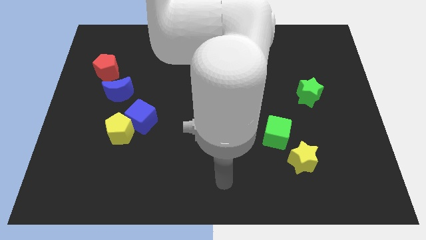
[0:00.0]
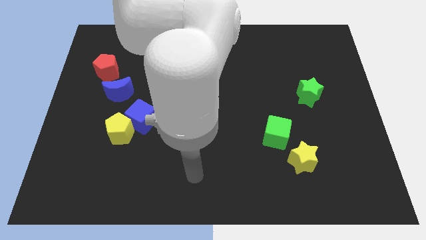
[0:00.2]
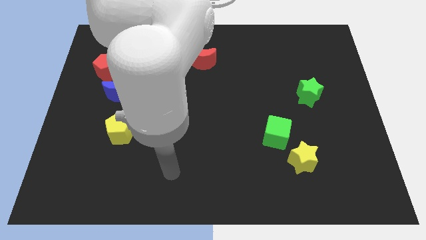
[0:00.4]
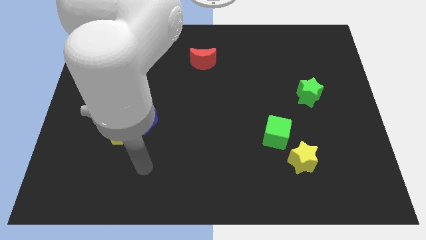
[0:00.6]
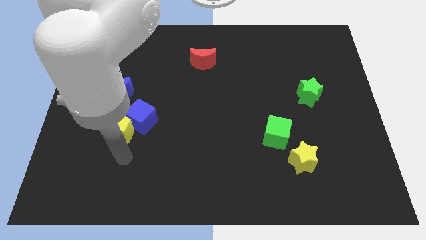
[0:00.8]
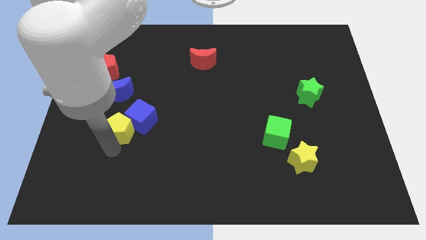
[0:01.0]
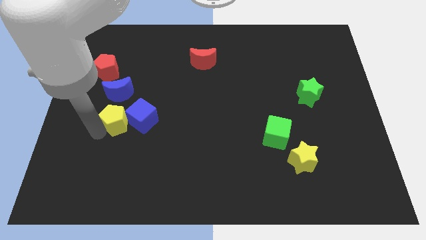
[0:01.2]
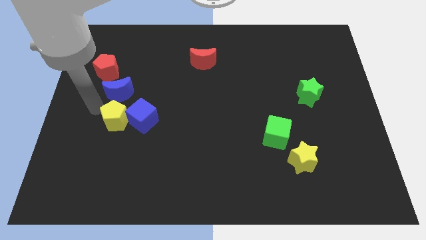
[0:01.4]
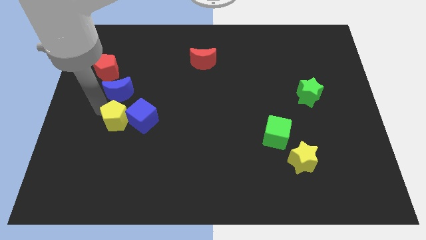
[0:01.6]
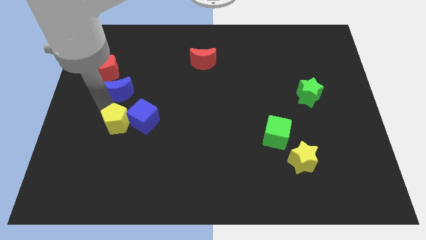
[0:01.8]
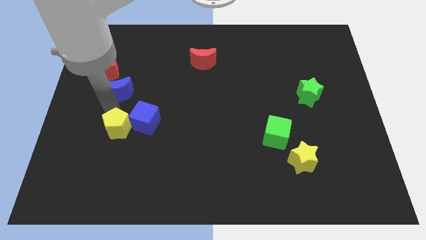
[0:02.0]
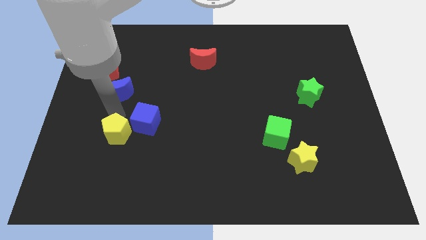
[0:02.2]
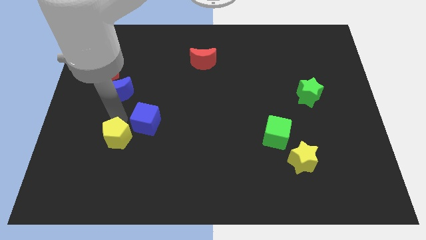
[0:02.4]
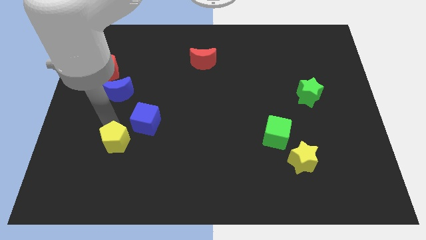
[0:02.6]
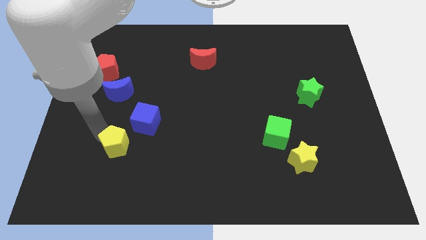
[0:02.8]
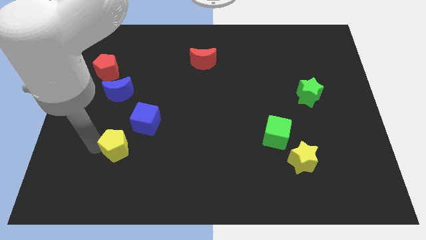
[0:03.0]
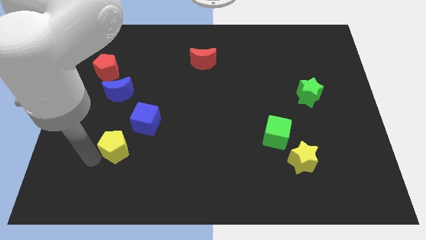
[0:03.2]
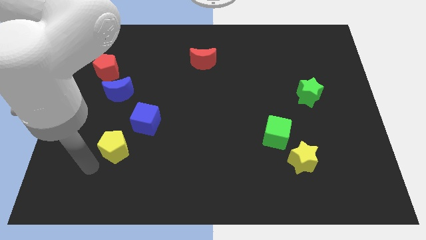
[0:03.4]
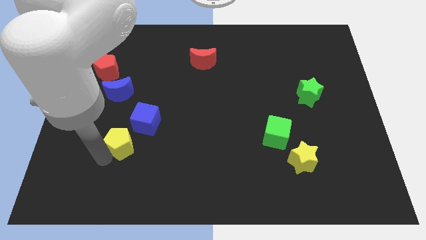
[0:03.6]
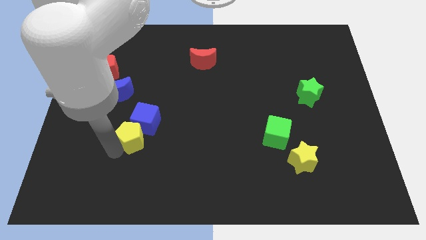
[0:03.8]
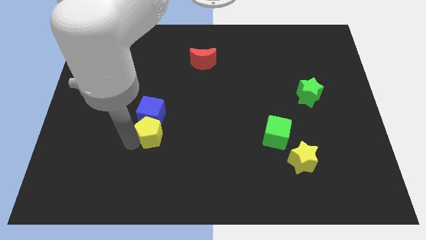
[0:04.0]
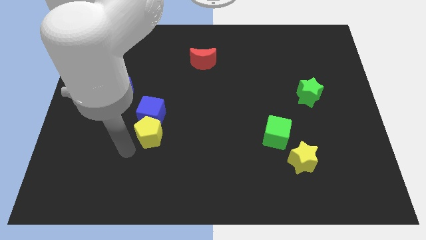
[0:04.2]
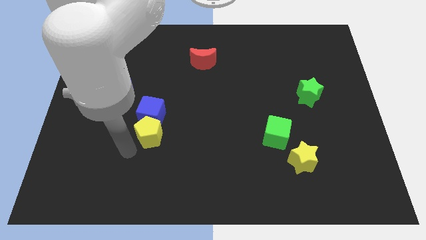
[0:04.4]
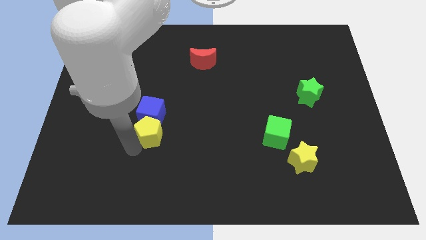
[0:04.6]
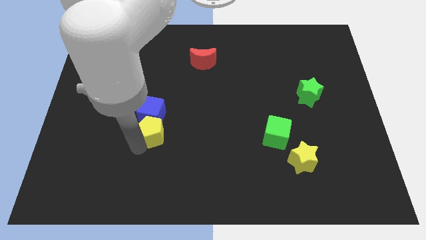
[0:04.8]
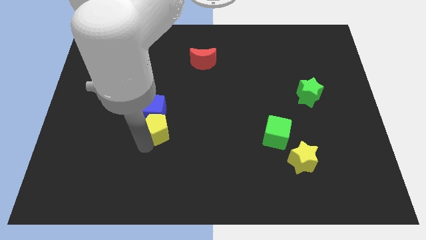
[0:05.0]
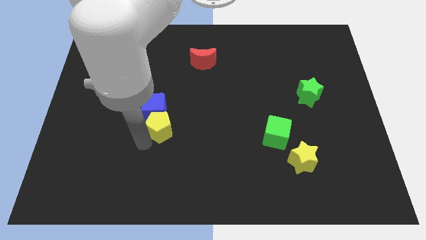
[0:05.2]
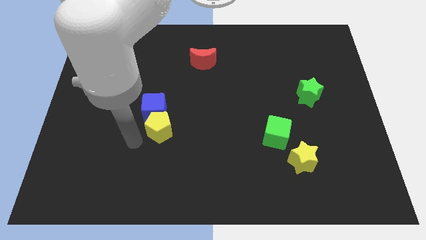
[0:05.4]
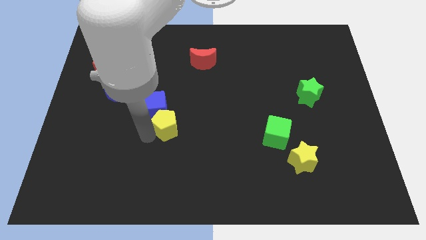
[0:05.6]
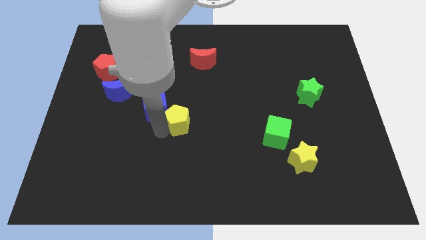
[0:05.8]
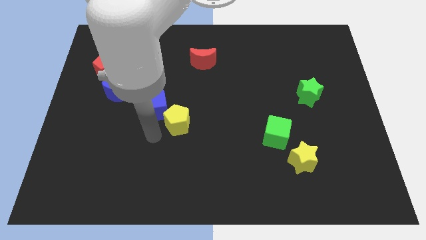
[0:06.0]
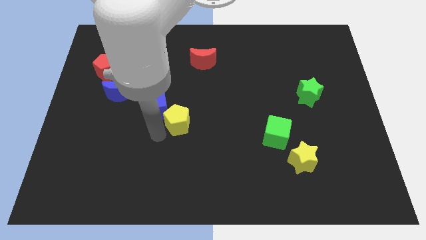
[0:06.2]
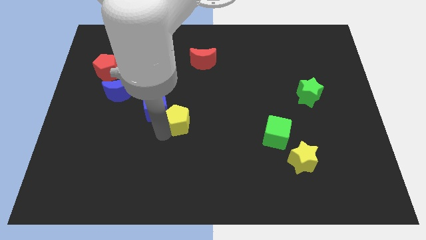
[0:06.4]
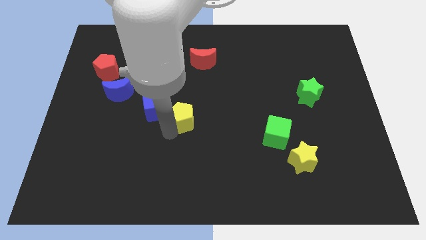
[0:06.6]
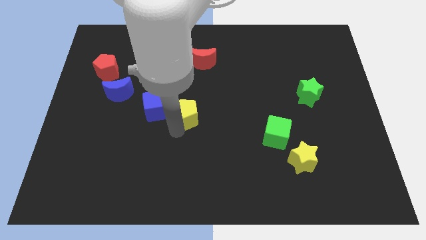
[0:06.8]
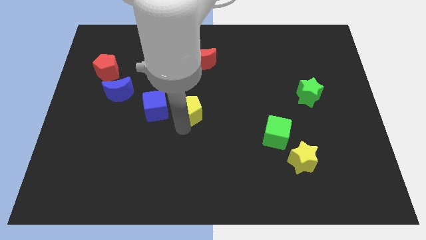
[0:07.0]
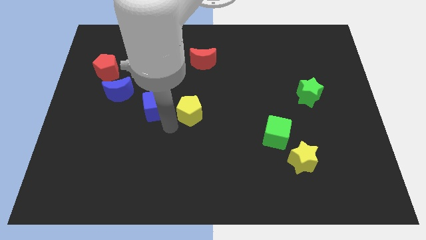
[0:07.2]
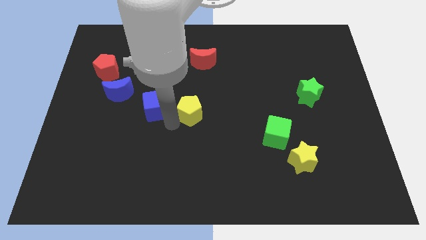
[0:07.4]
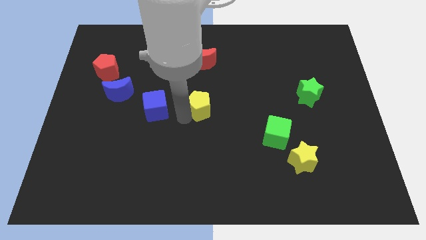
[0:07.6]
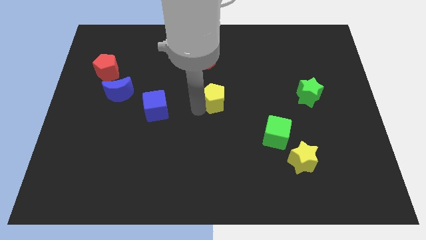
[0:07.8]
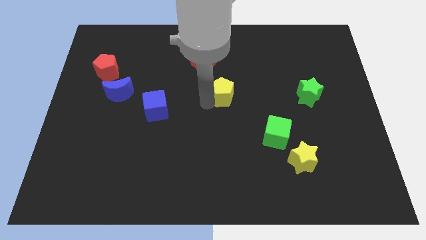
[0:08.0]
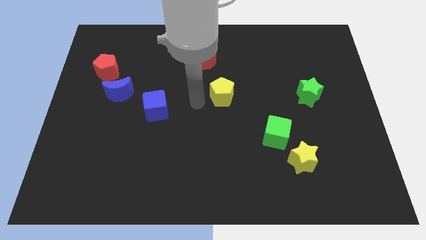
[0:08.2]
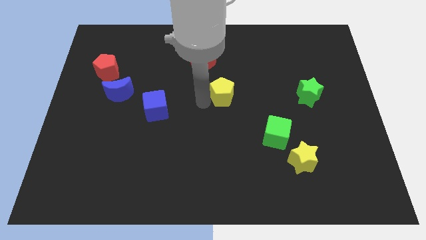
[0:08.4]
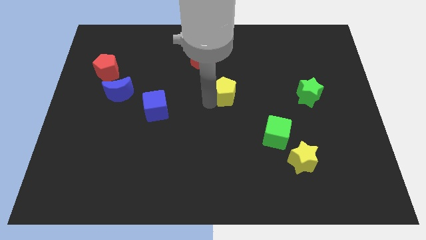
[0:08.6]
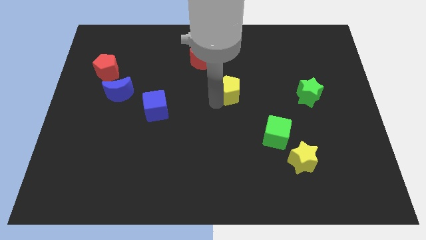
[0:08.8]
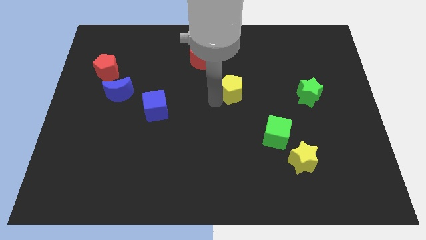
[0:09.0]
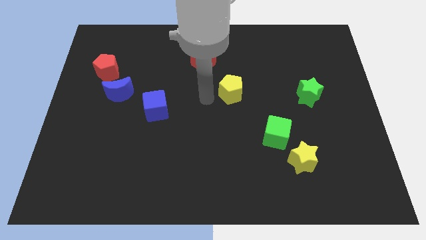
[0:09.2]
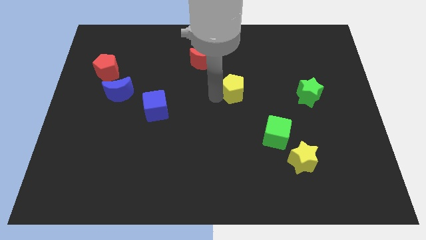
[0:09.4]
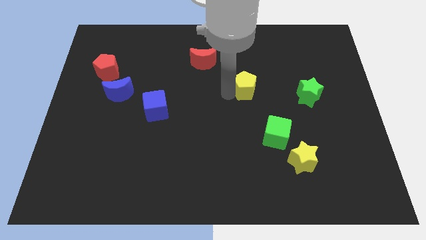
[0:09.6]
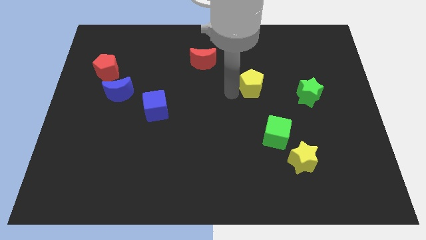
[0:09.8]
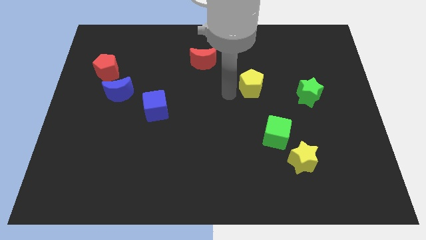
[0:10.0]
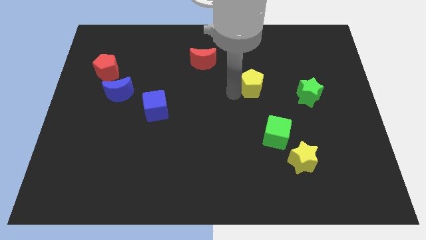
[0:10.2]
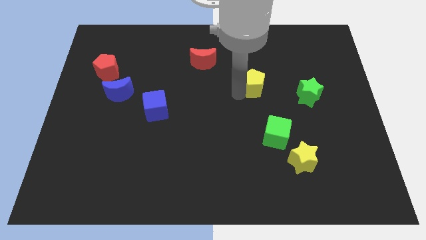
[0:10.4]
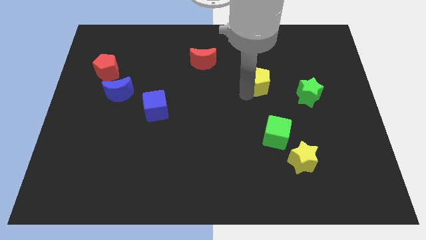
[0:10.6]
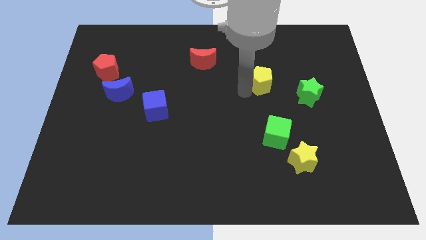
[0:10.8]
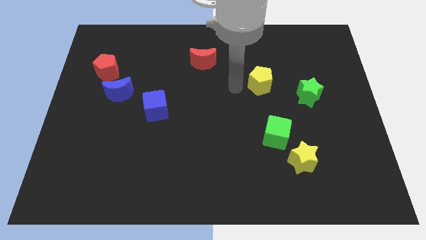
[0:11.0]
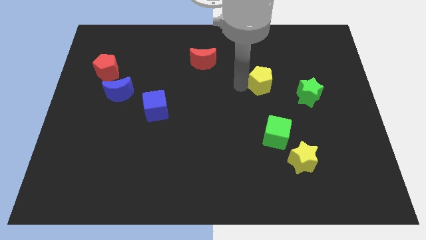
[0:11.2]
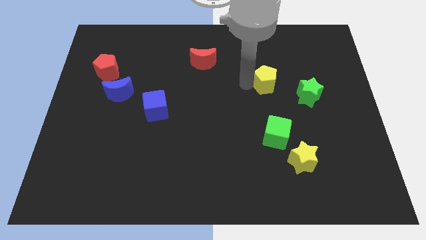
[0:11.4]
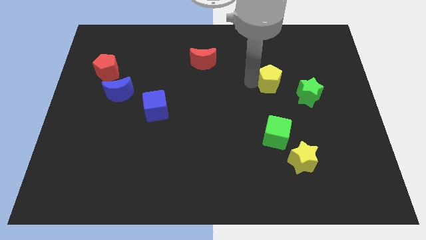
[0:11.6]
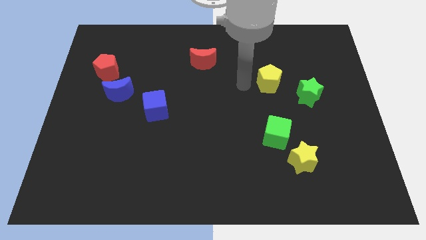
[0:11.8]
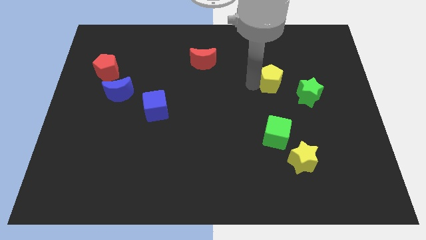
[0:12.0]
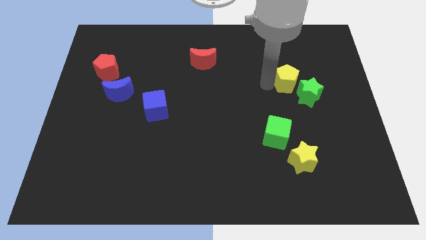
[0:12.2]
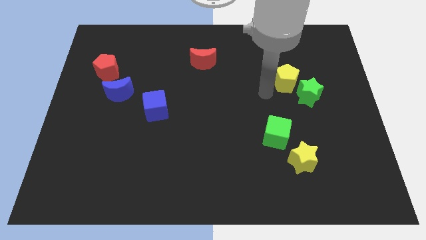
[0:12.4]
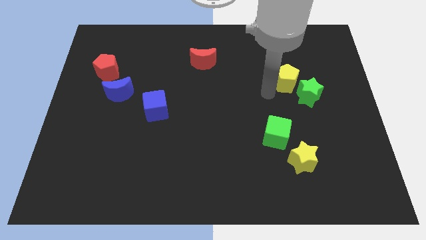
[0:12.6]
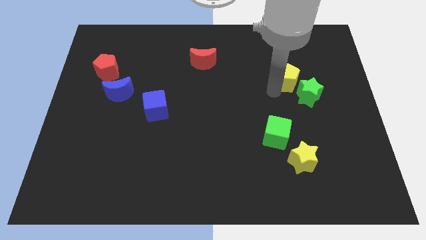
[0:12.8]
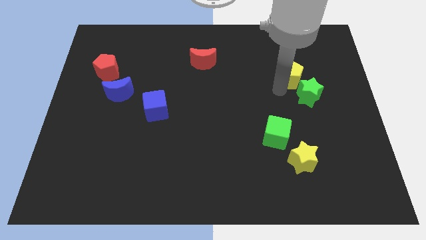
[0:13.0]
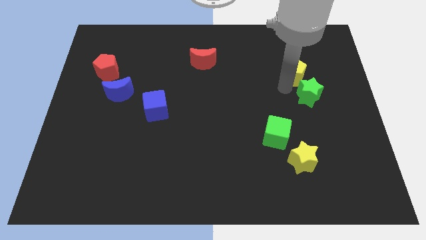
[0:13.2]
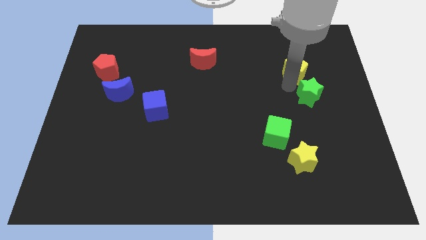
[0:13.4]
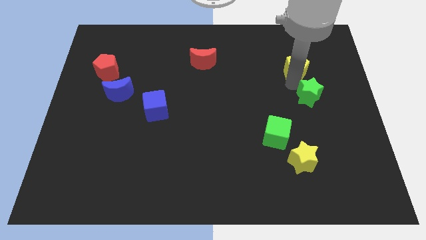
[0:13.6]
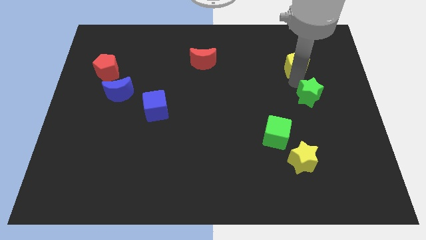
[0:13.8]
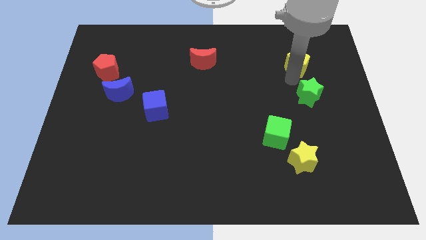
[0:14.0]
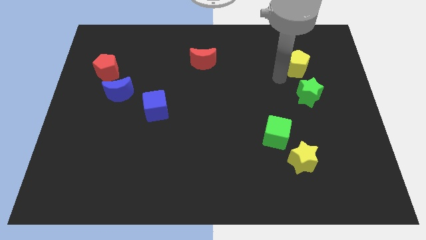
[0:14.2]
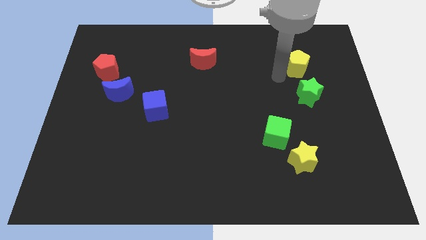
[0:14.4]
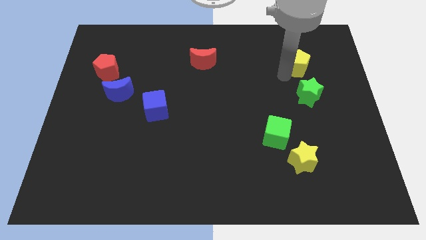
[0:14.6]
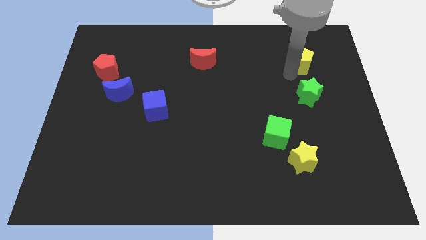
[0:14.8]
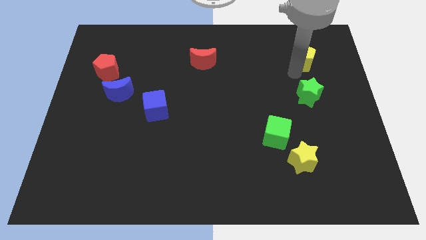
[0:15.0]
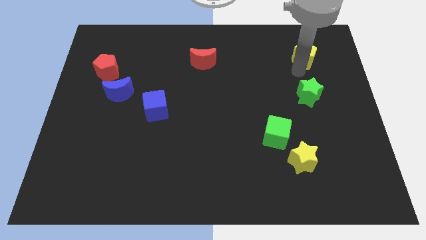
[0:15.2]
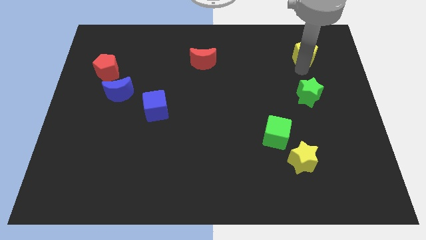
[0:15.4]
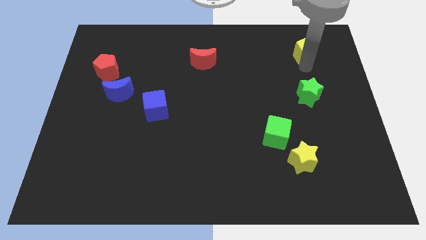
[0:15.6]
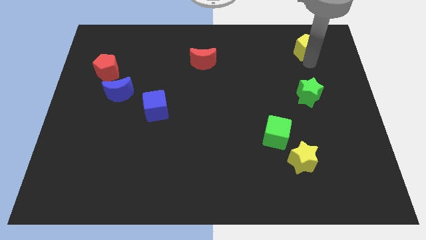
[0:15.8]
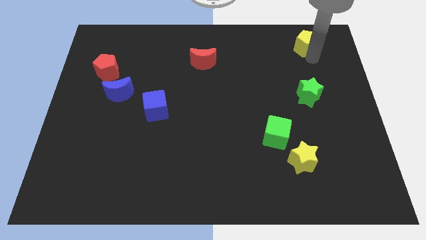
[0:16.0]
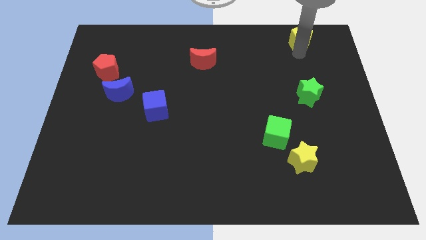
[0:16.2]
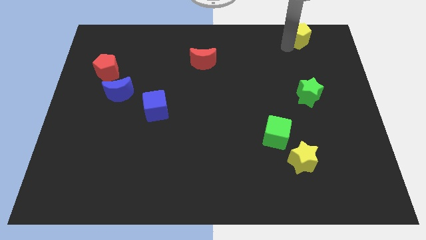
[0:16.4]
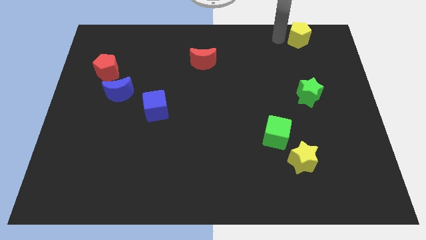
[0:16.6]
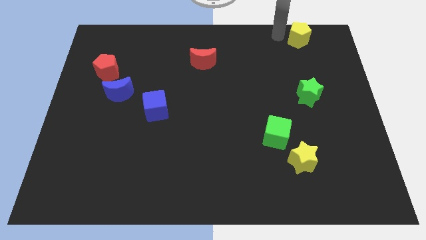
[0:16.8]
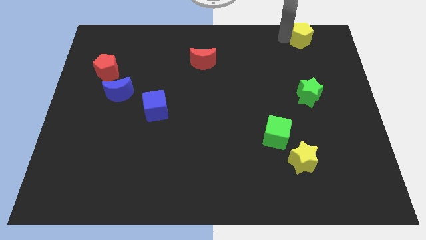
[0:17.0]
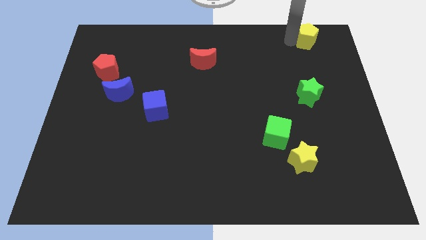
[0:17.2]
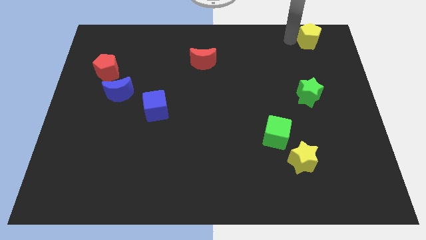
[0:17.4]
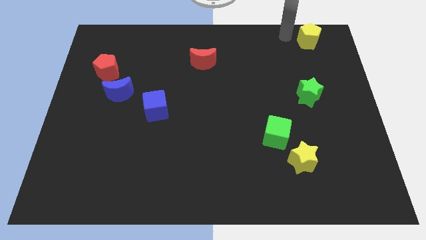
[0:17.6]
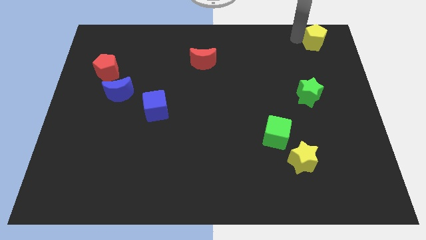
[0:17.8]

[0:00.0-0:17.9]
move the yellow pentagon to the top right
